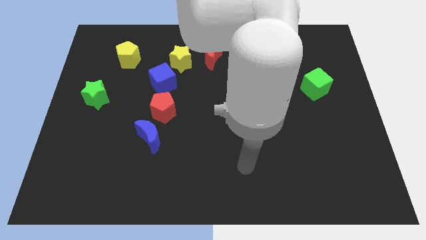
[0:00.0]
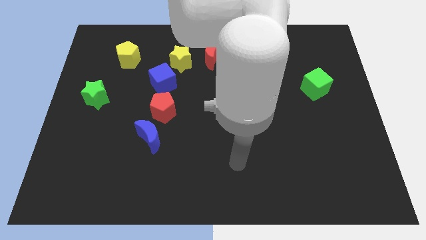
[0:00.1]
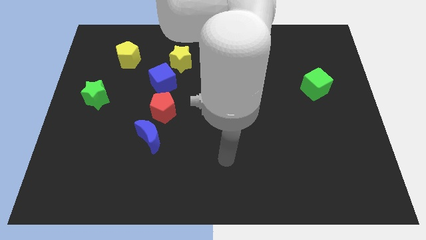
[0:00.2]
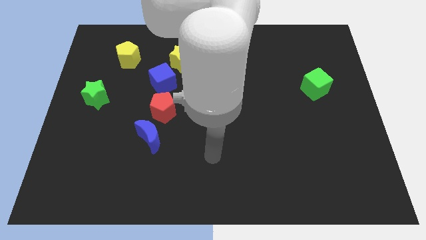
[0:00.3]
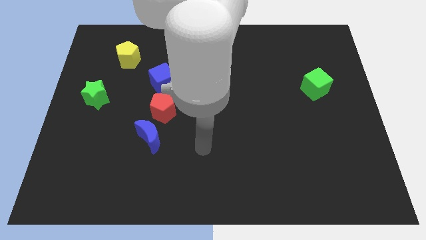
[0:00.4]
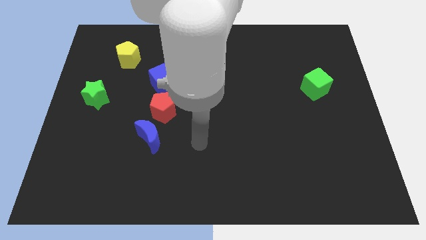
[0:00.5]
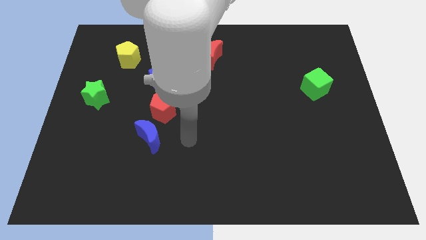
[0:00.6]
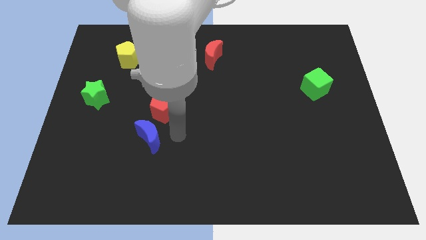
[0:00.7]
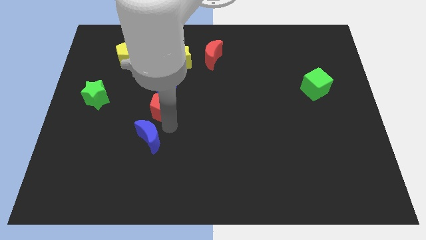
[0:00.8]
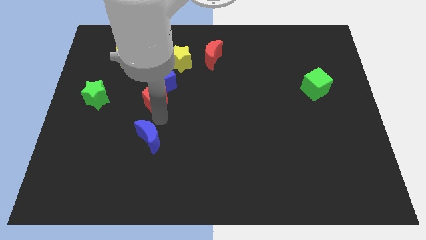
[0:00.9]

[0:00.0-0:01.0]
pull the blue moon apart from the red pentagon

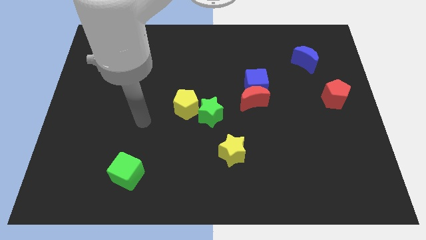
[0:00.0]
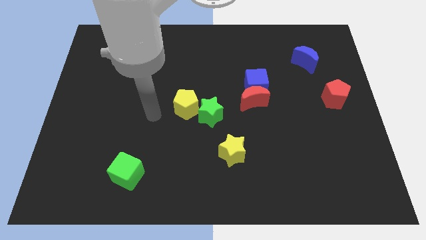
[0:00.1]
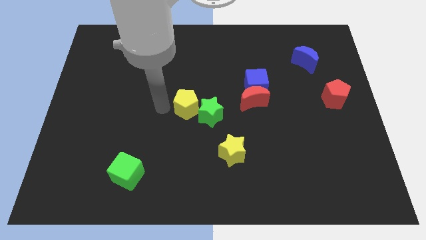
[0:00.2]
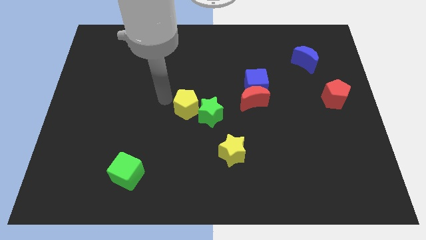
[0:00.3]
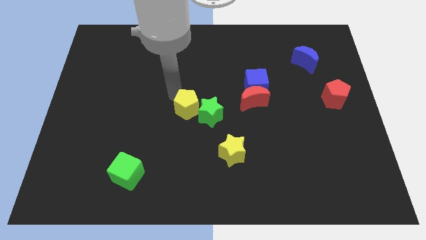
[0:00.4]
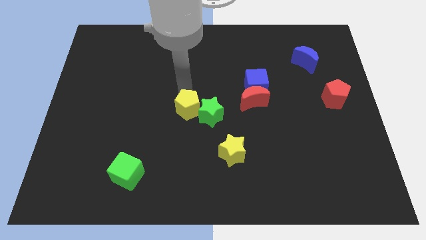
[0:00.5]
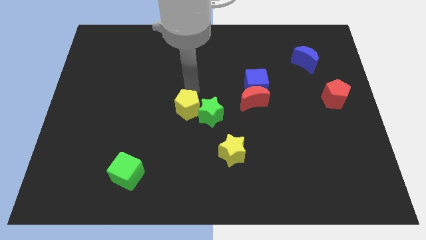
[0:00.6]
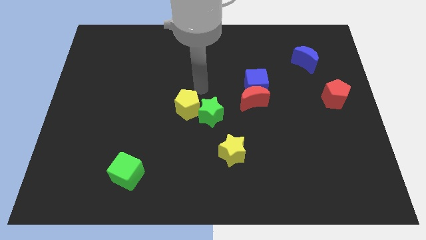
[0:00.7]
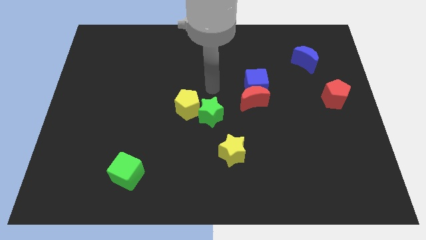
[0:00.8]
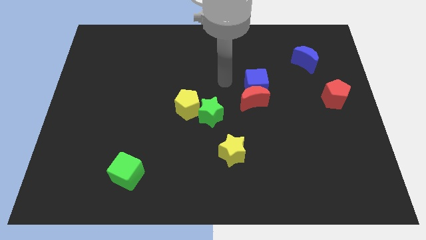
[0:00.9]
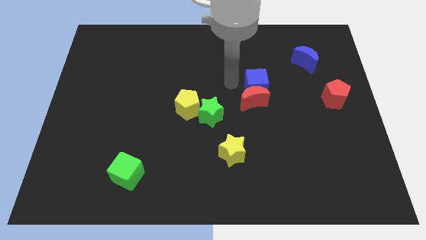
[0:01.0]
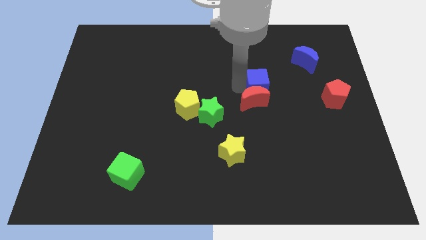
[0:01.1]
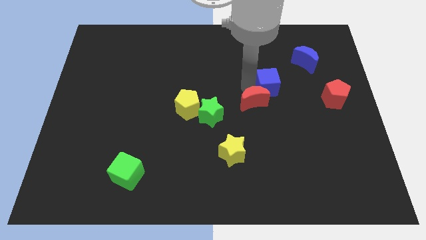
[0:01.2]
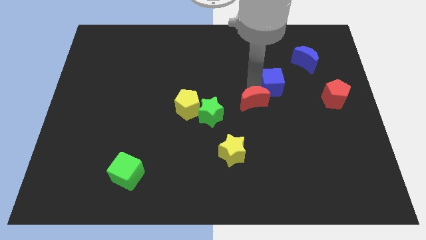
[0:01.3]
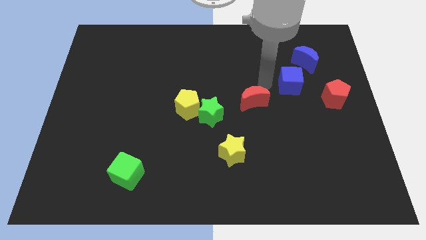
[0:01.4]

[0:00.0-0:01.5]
move the red moon away from the blue cube

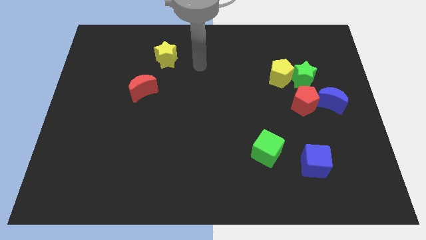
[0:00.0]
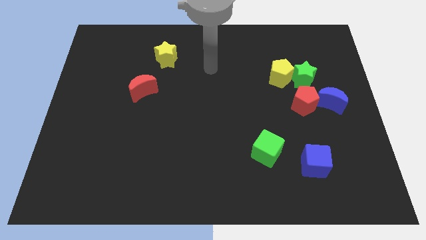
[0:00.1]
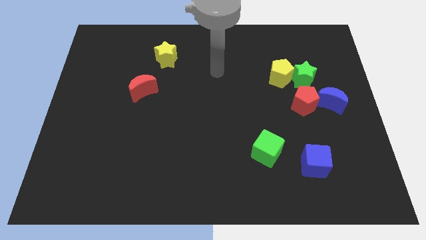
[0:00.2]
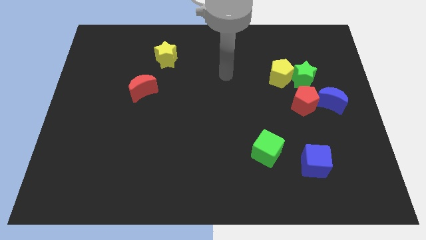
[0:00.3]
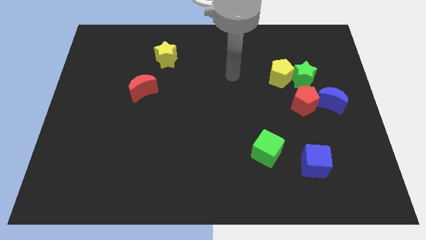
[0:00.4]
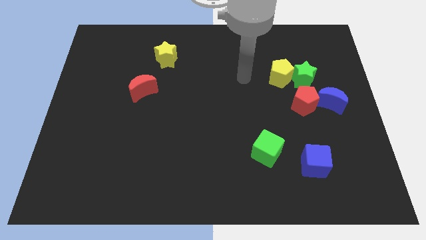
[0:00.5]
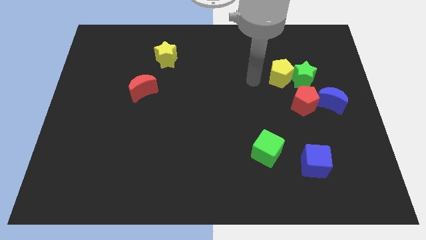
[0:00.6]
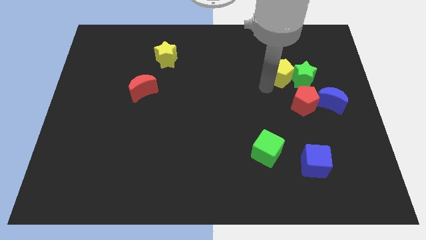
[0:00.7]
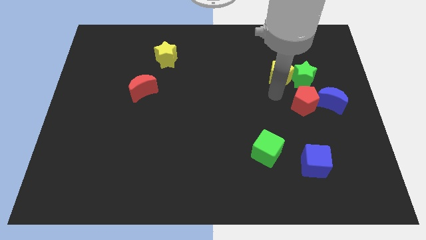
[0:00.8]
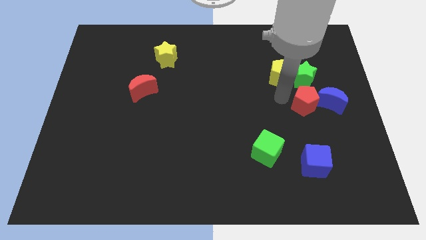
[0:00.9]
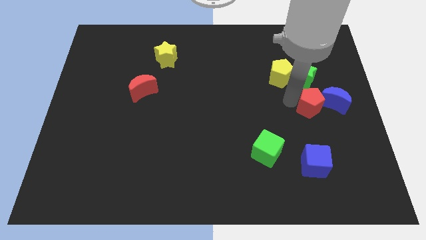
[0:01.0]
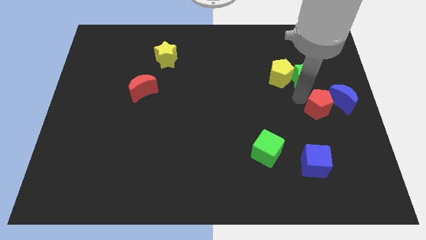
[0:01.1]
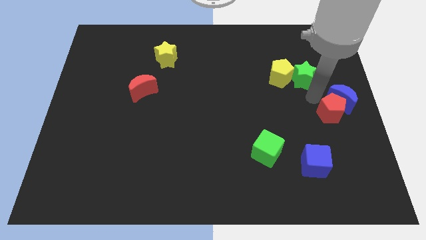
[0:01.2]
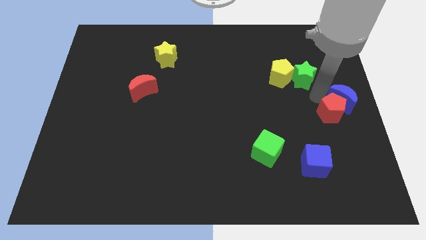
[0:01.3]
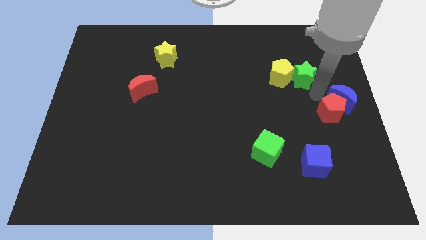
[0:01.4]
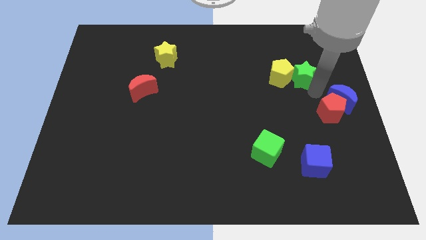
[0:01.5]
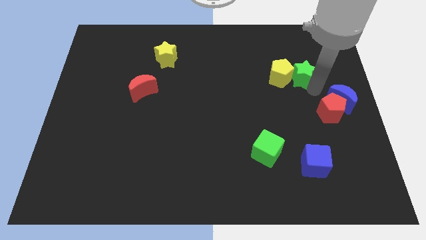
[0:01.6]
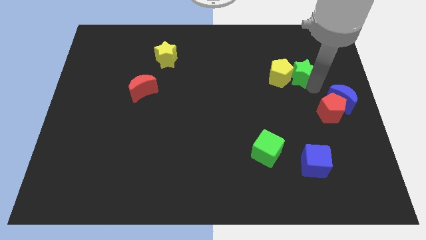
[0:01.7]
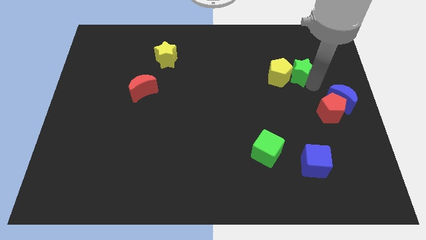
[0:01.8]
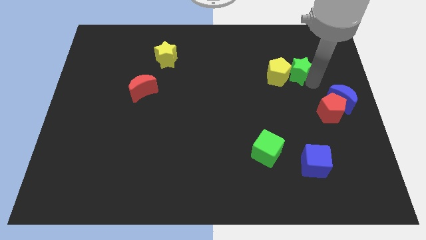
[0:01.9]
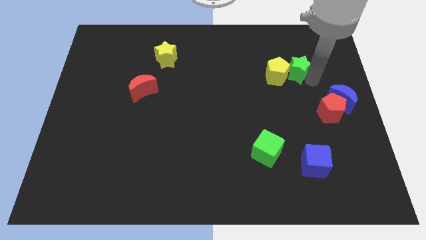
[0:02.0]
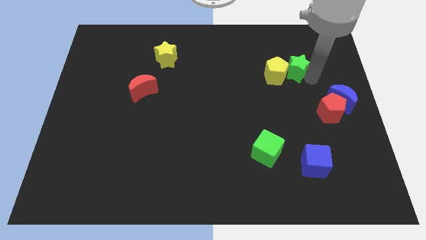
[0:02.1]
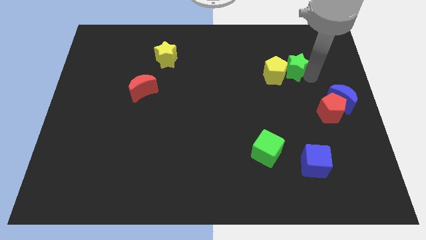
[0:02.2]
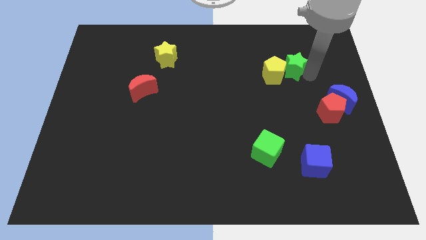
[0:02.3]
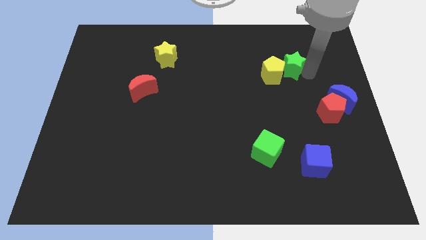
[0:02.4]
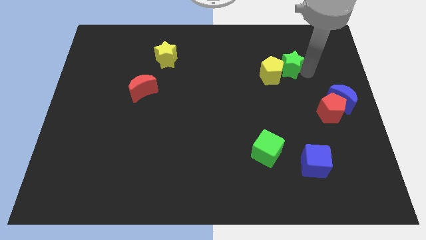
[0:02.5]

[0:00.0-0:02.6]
move the green star away from the clump

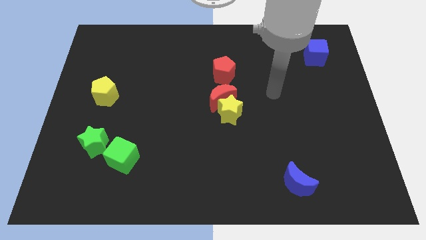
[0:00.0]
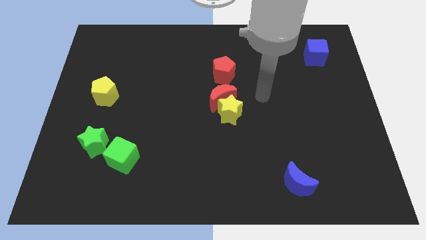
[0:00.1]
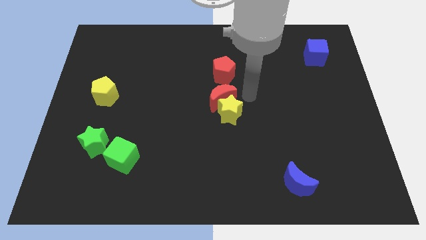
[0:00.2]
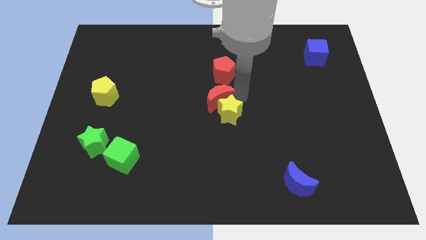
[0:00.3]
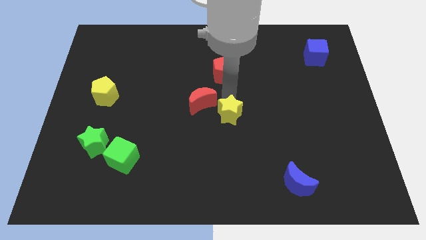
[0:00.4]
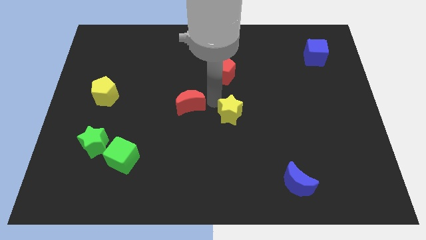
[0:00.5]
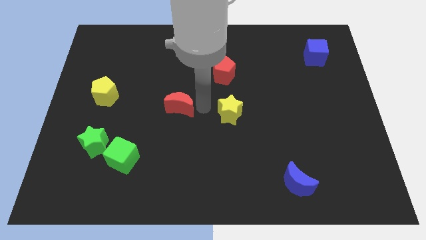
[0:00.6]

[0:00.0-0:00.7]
pull the yellow star apart from the red moon

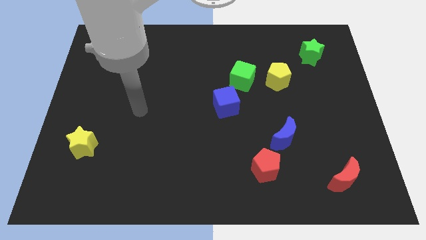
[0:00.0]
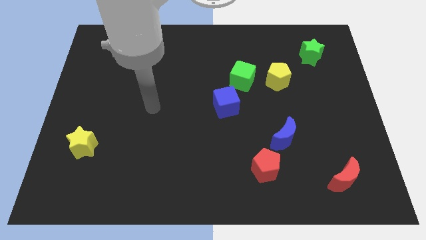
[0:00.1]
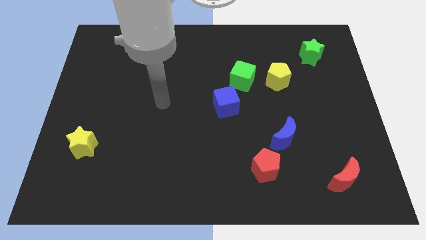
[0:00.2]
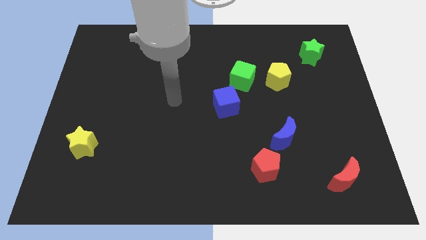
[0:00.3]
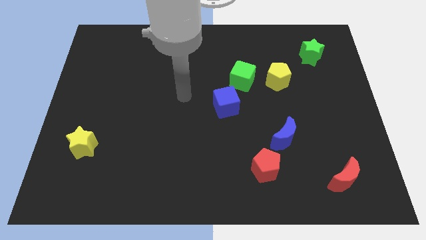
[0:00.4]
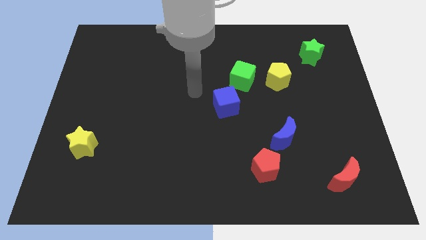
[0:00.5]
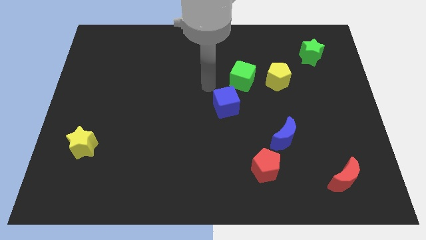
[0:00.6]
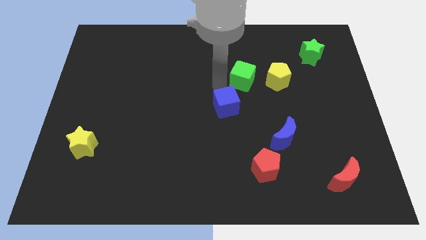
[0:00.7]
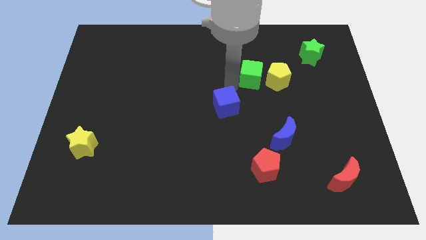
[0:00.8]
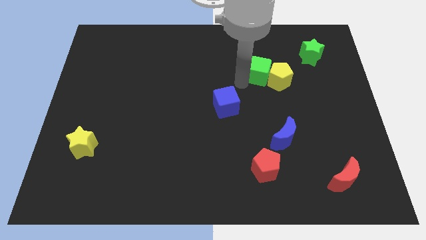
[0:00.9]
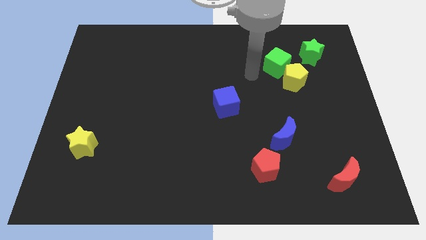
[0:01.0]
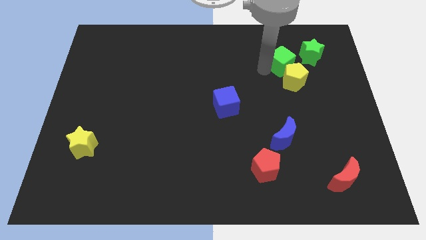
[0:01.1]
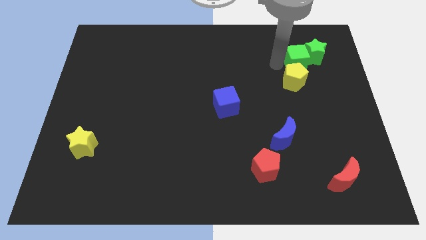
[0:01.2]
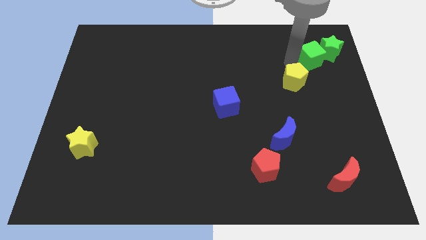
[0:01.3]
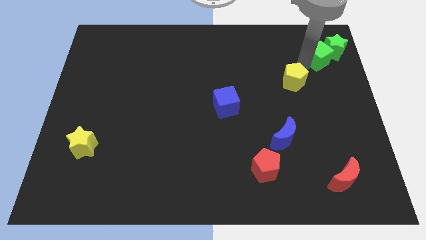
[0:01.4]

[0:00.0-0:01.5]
pull the yellow pentagon apart from the green cube

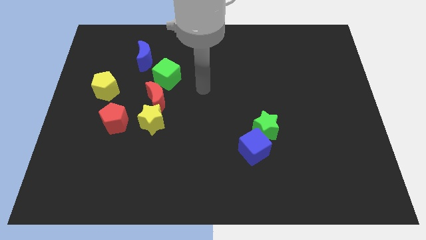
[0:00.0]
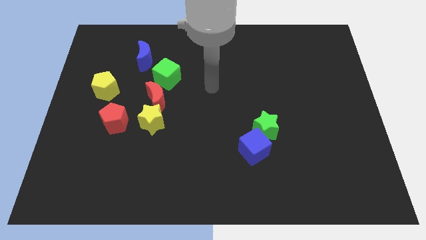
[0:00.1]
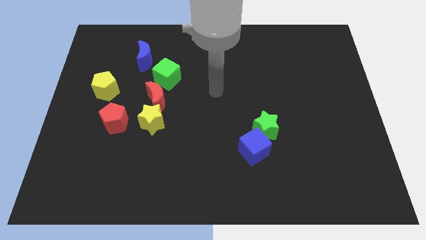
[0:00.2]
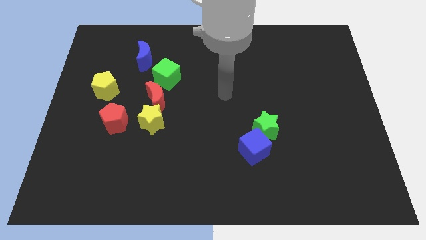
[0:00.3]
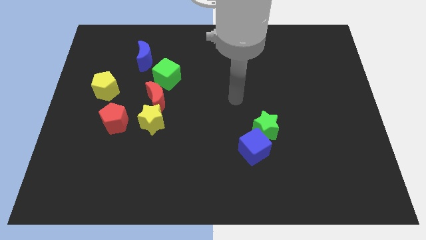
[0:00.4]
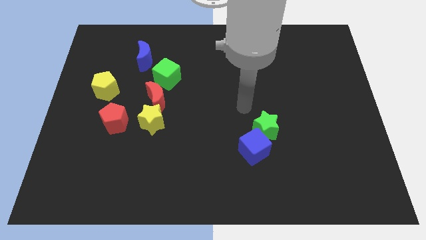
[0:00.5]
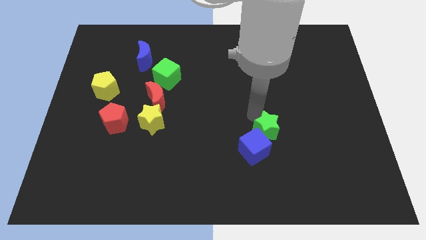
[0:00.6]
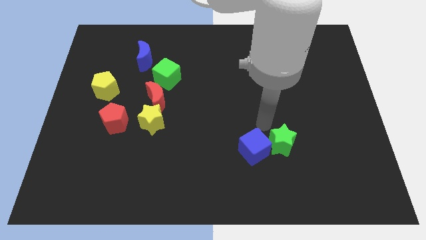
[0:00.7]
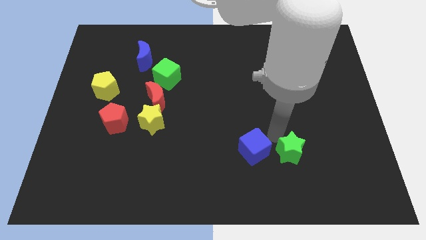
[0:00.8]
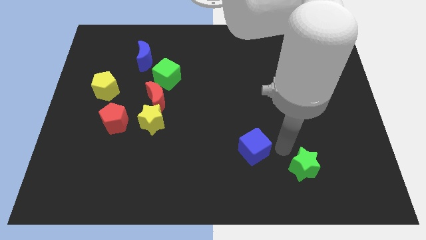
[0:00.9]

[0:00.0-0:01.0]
pull the blue cube apart from the green star

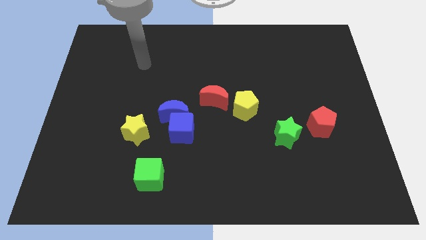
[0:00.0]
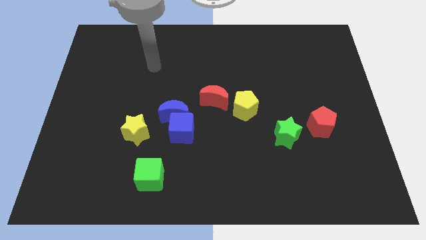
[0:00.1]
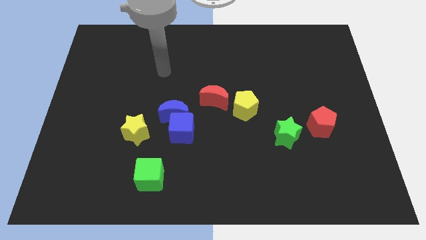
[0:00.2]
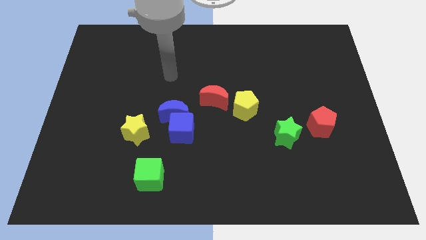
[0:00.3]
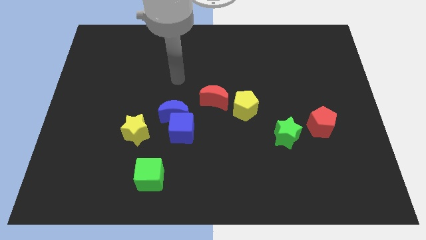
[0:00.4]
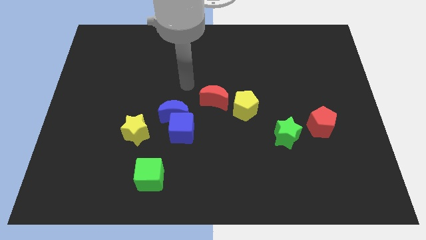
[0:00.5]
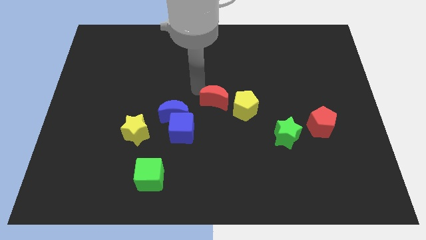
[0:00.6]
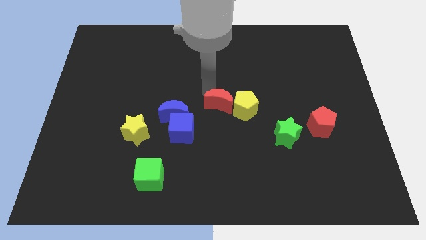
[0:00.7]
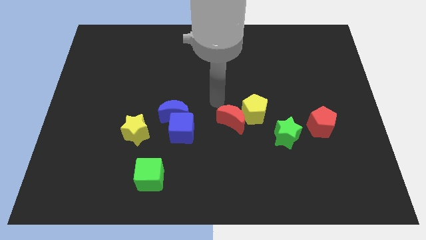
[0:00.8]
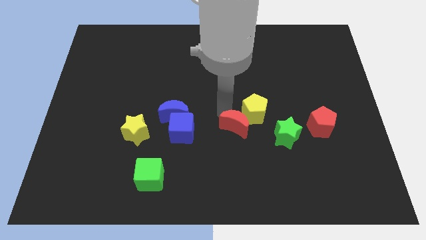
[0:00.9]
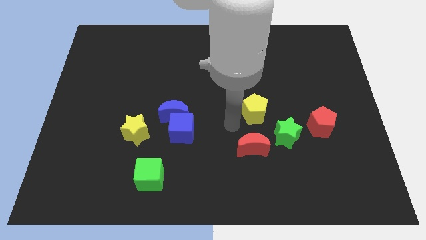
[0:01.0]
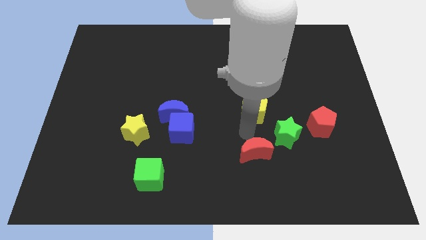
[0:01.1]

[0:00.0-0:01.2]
separate the yellow pentagon from the red moon

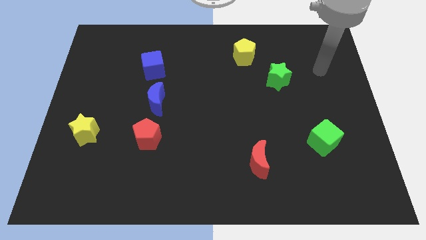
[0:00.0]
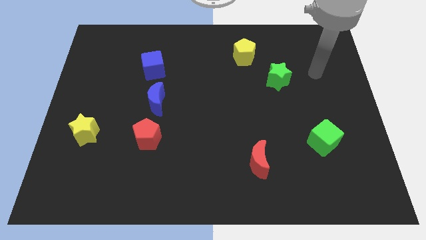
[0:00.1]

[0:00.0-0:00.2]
pull the red pentagon apart from the blue moon
